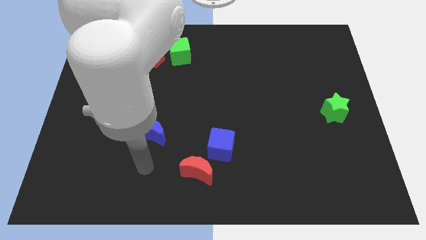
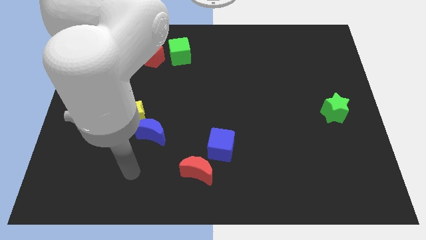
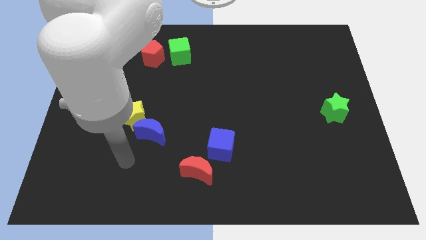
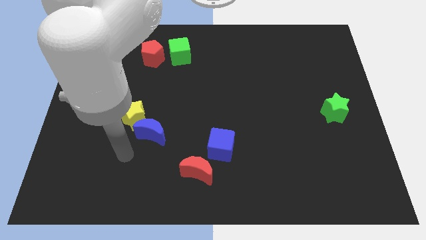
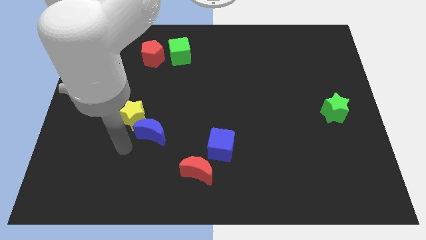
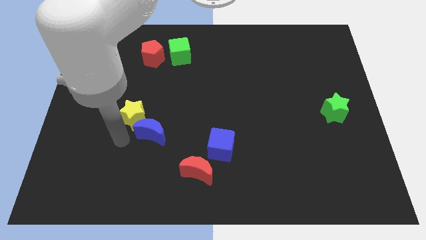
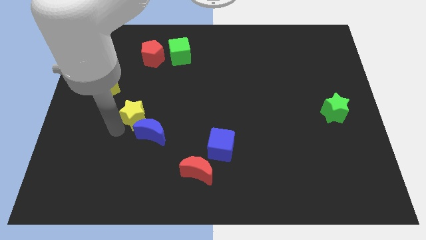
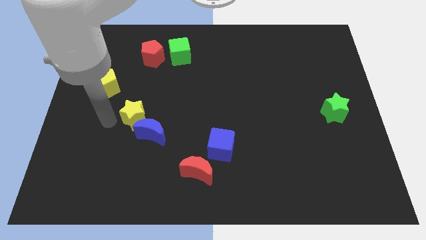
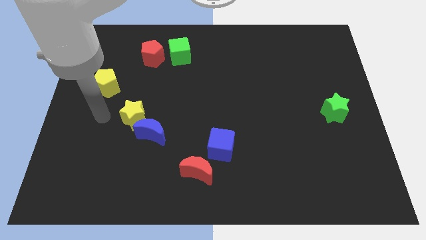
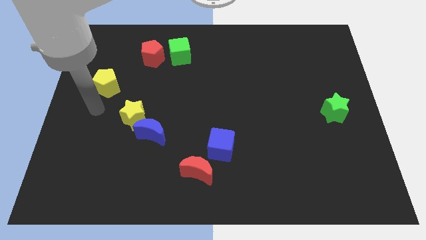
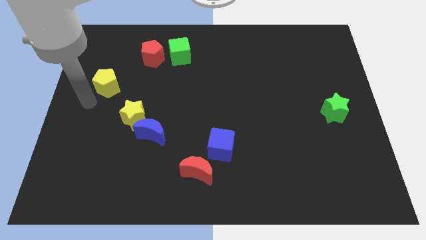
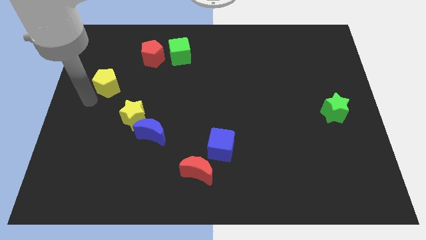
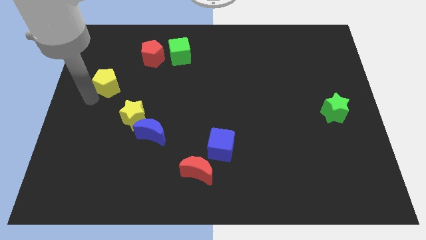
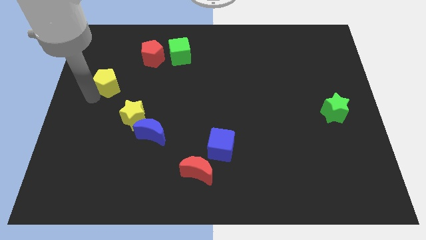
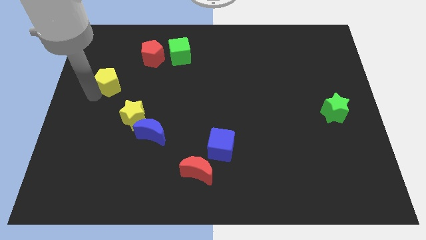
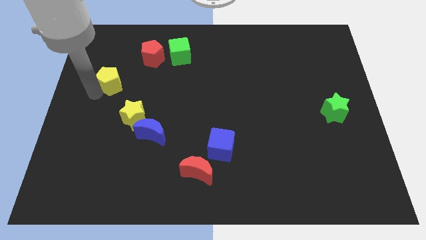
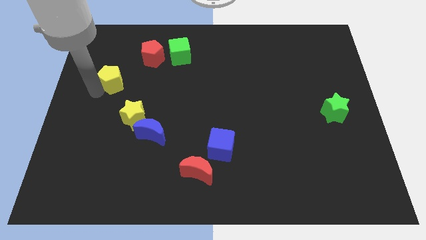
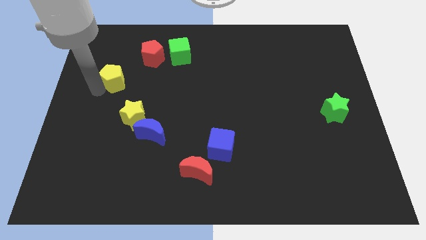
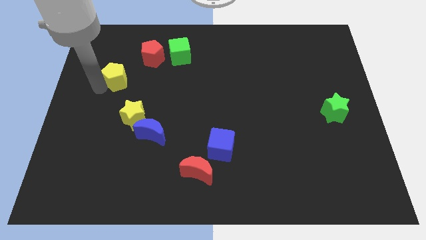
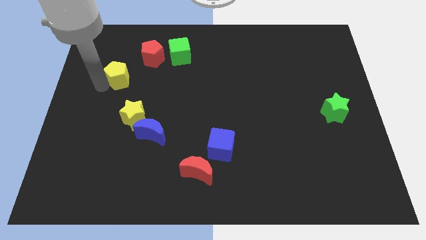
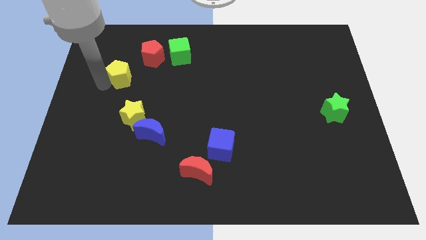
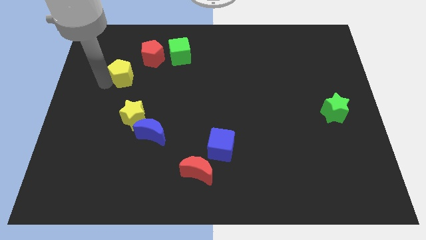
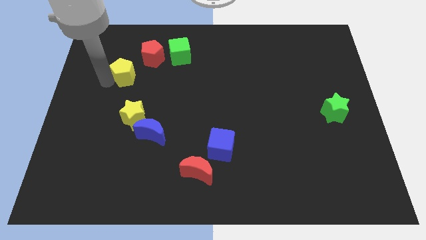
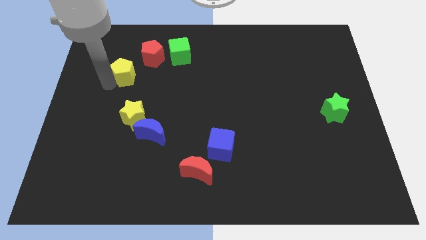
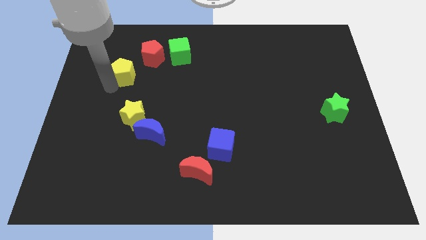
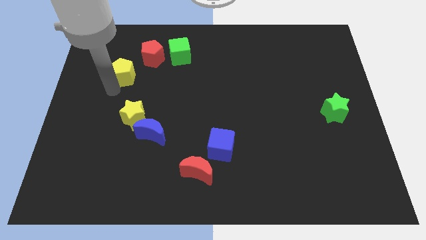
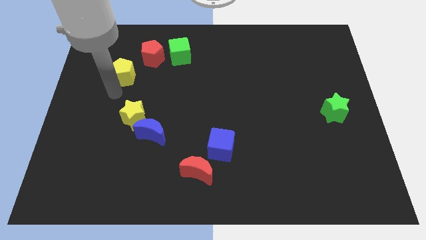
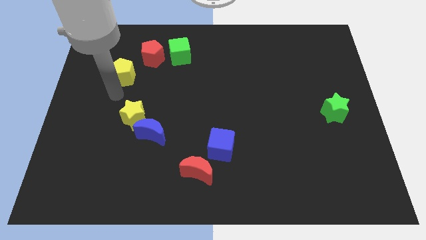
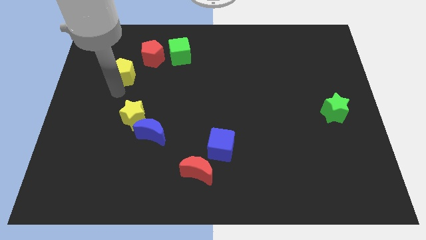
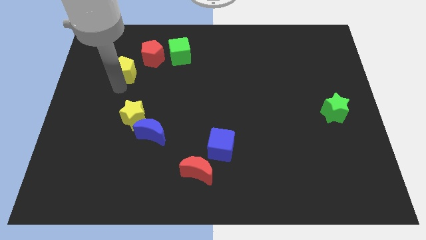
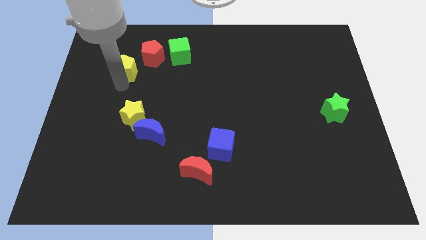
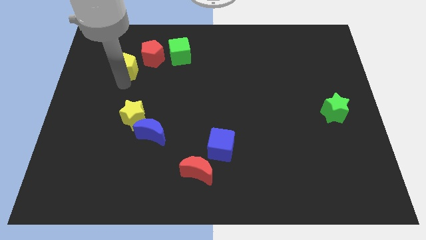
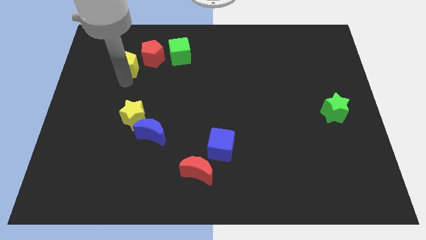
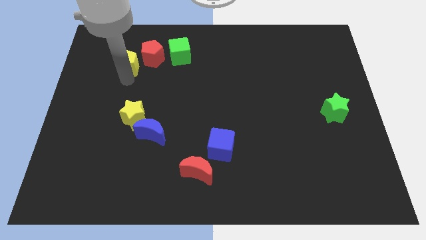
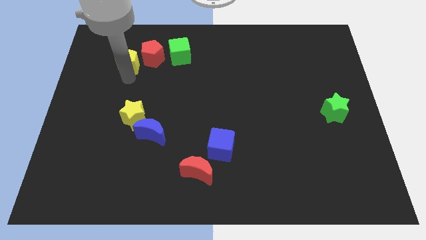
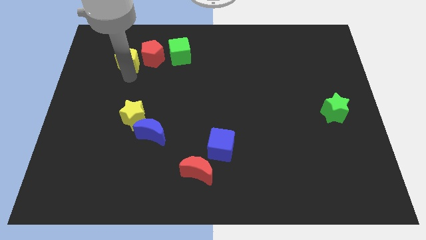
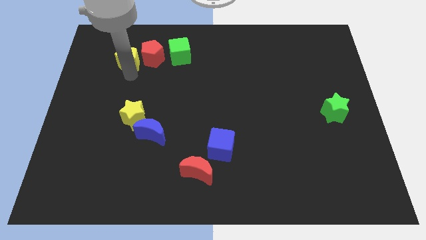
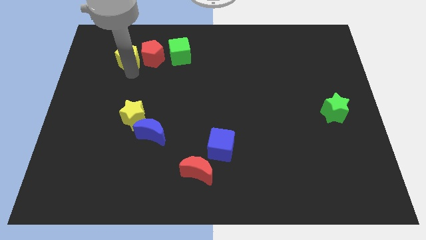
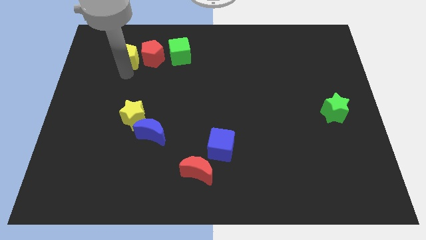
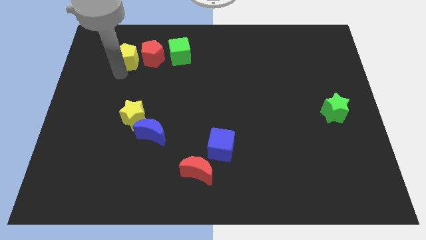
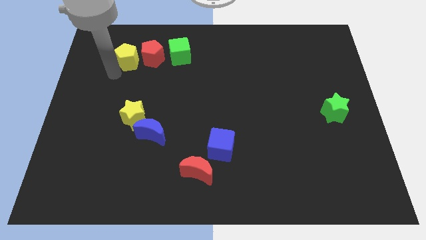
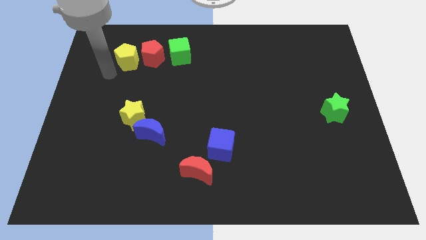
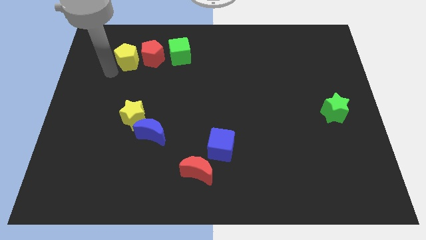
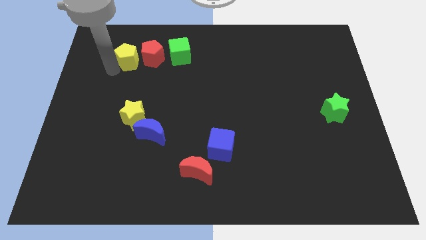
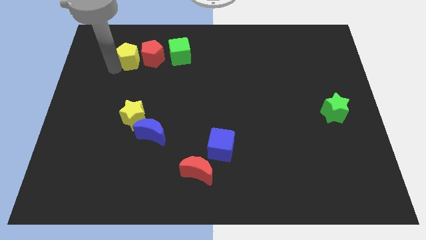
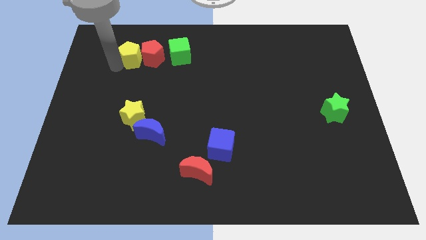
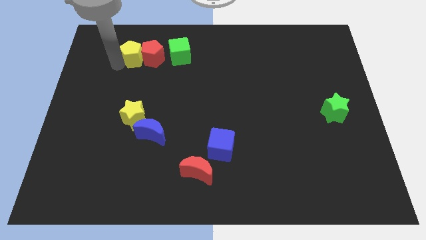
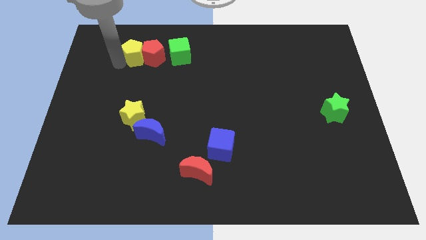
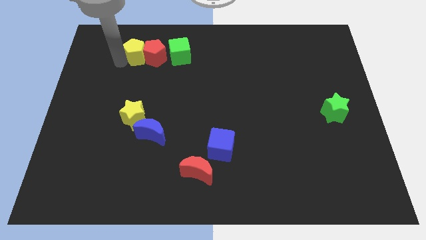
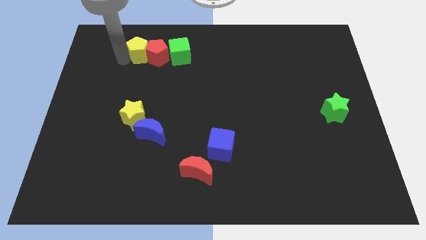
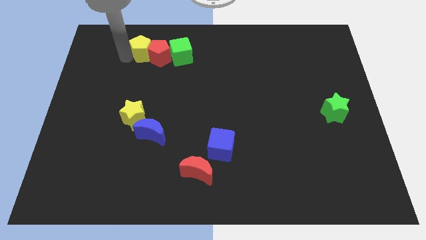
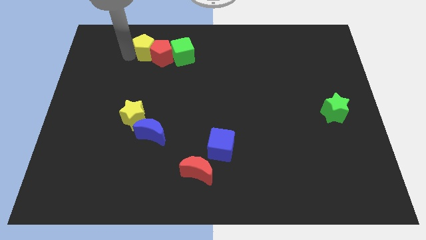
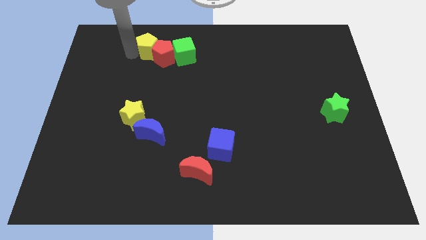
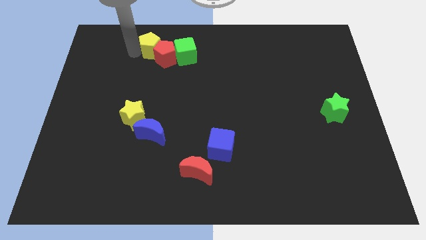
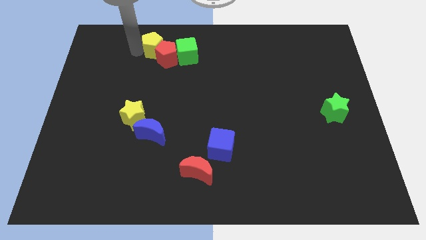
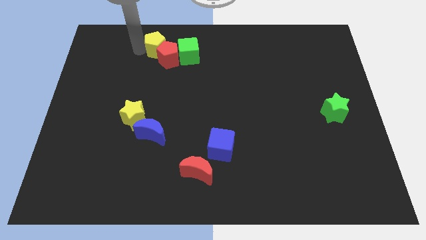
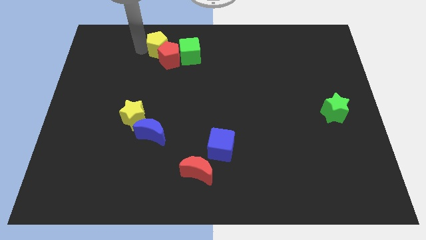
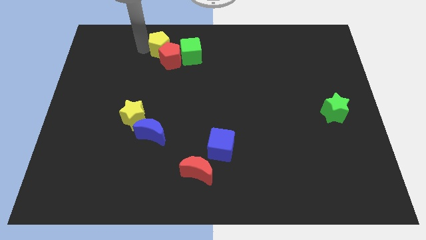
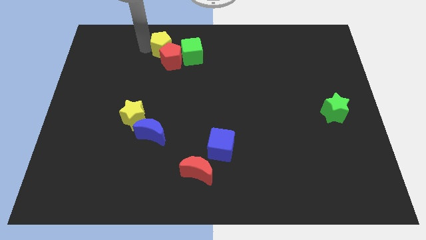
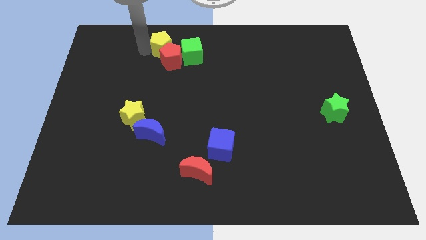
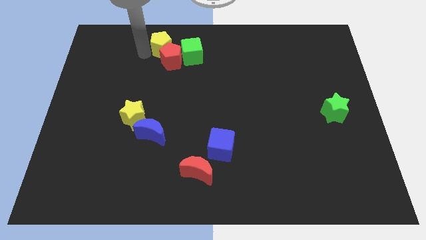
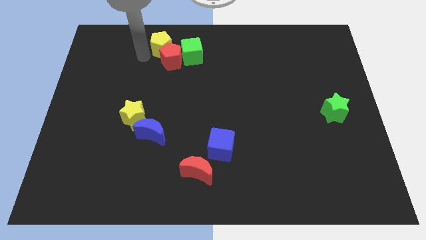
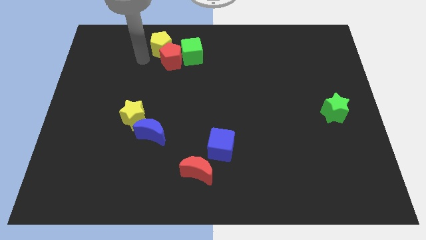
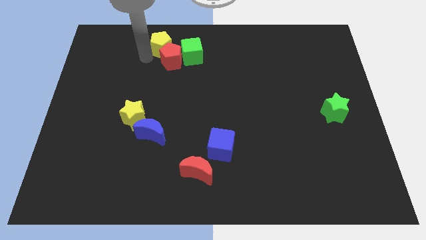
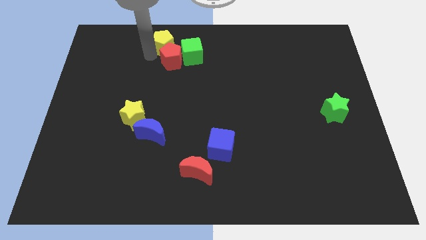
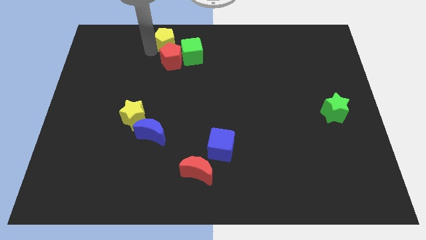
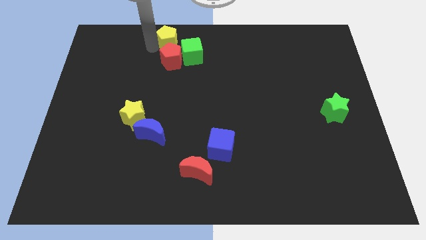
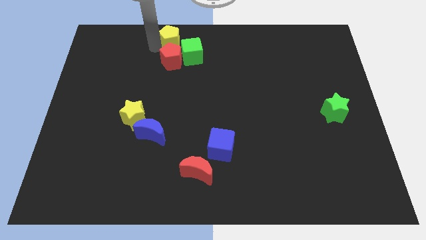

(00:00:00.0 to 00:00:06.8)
move the yellow pentagon to the towards your base
